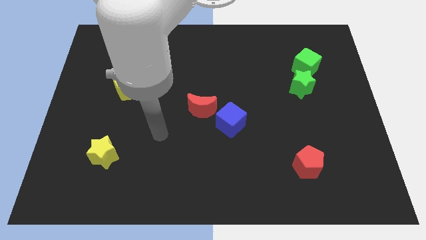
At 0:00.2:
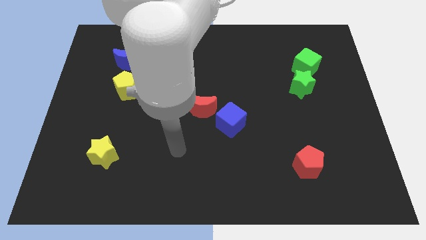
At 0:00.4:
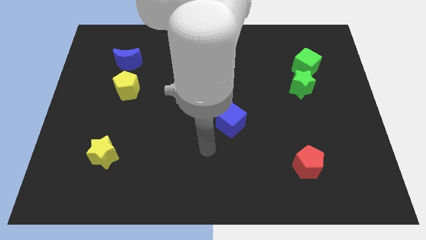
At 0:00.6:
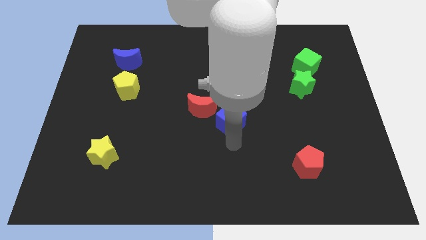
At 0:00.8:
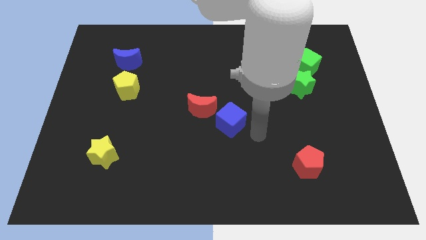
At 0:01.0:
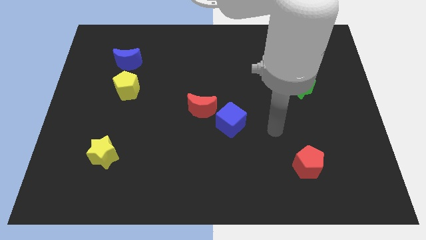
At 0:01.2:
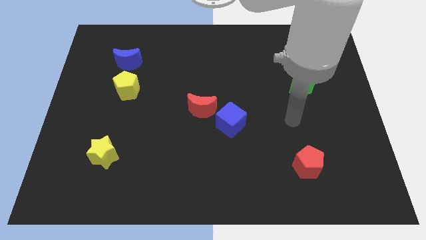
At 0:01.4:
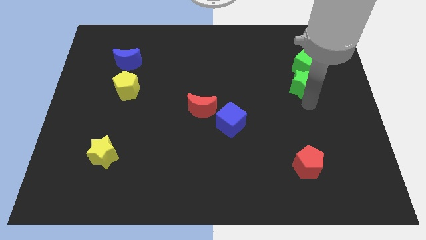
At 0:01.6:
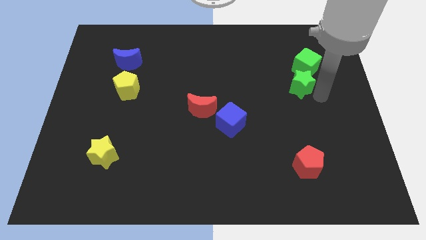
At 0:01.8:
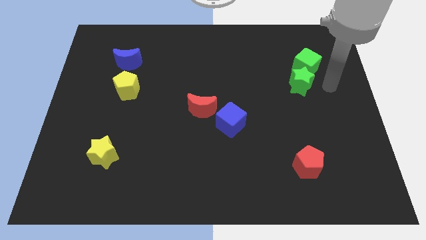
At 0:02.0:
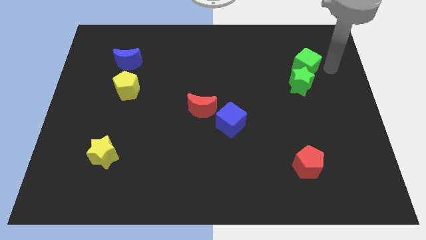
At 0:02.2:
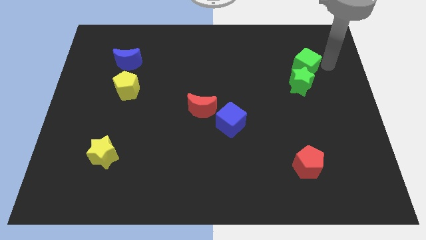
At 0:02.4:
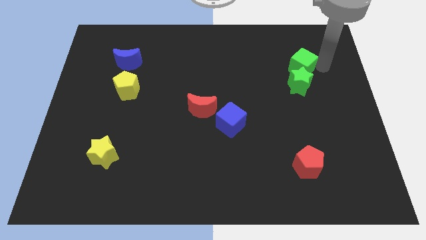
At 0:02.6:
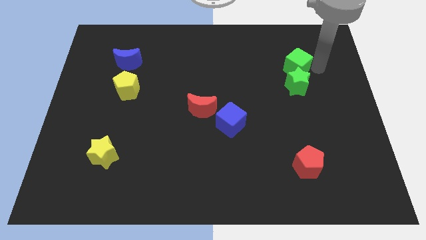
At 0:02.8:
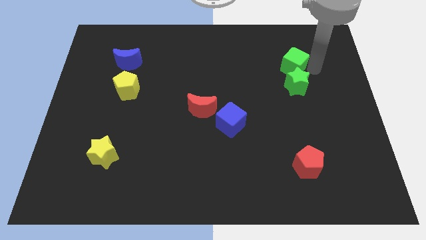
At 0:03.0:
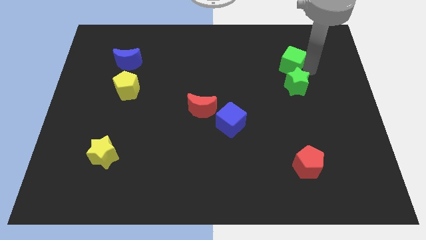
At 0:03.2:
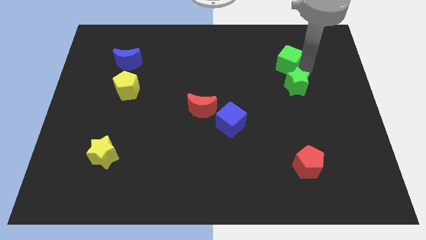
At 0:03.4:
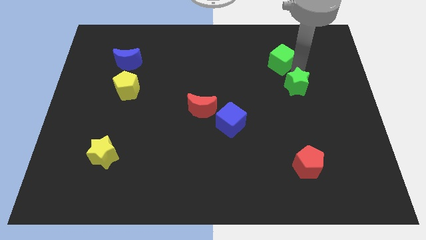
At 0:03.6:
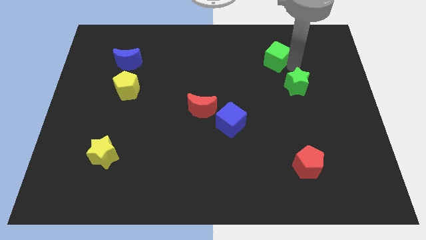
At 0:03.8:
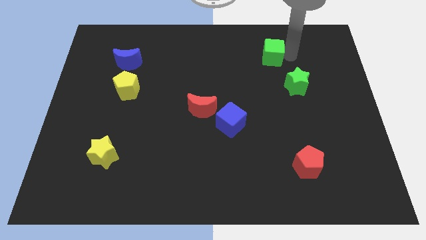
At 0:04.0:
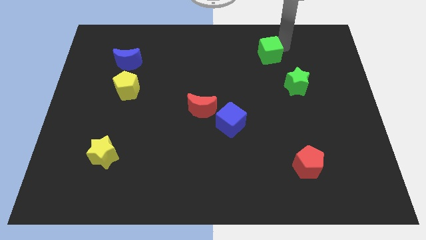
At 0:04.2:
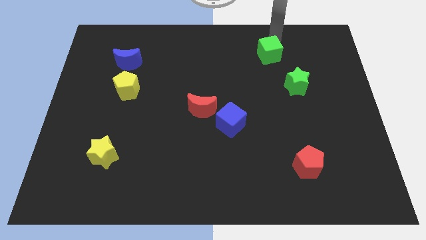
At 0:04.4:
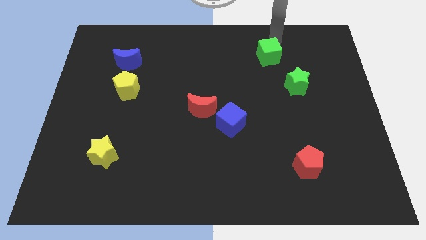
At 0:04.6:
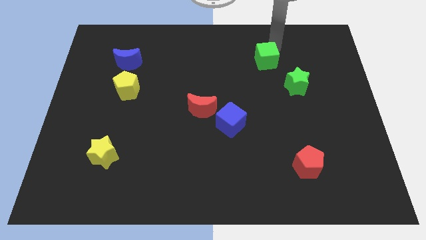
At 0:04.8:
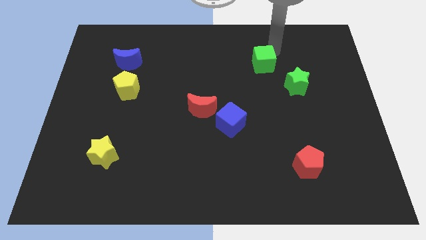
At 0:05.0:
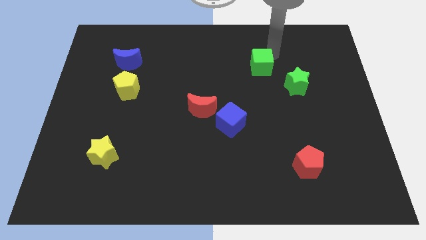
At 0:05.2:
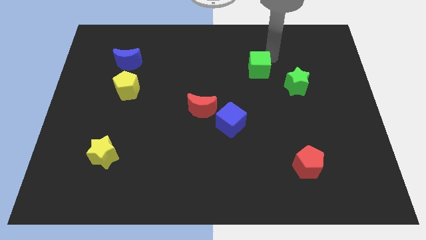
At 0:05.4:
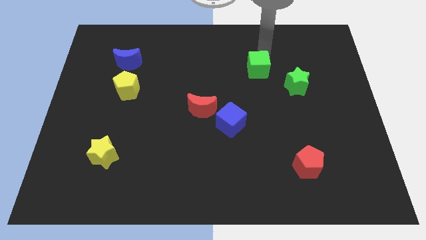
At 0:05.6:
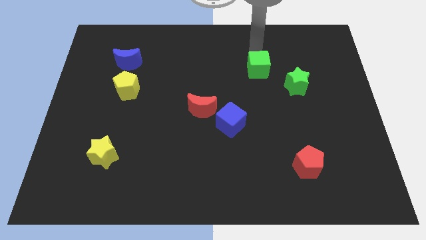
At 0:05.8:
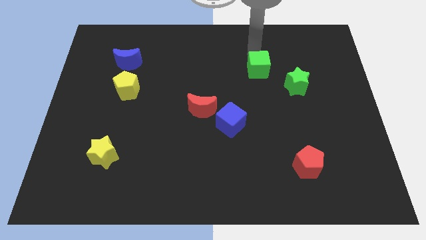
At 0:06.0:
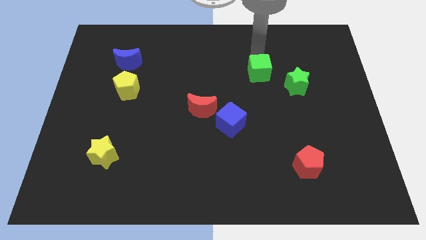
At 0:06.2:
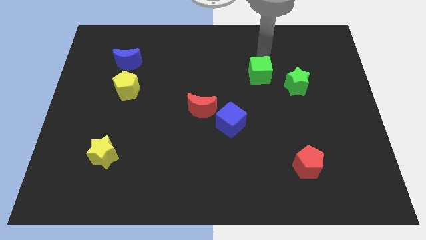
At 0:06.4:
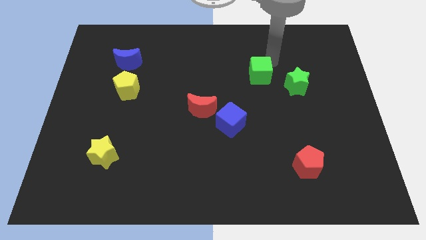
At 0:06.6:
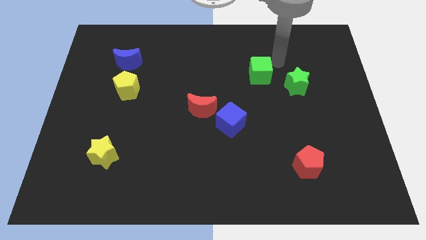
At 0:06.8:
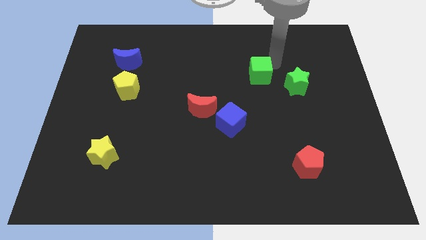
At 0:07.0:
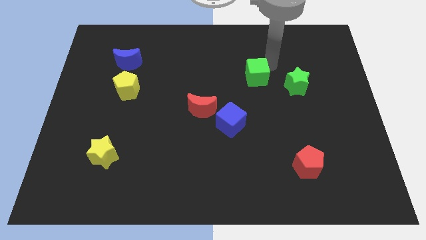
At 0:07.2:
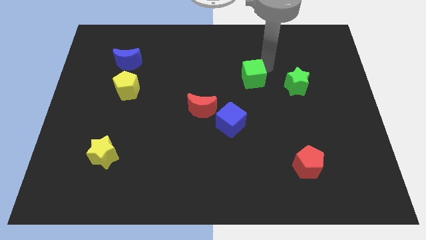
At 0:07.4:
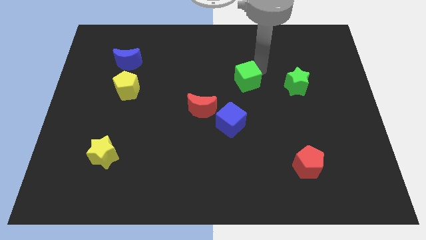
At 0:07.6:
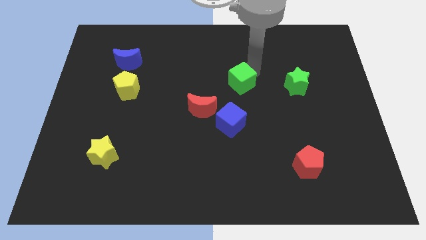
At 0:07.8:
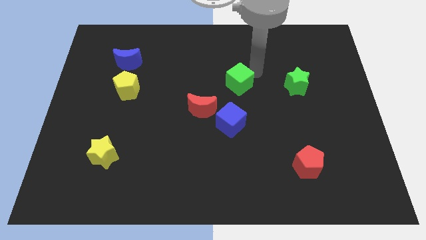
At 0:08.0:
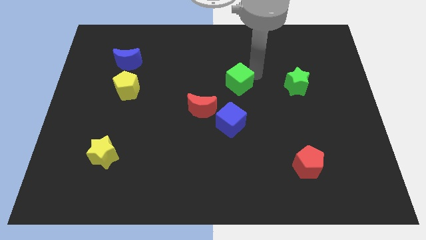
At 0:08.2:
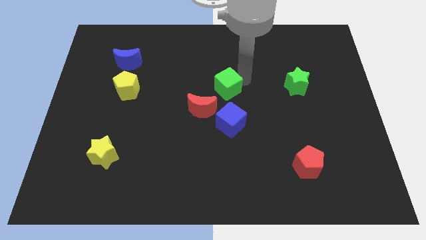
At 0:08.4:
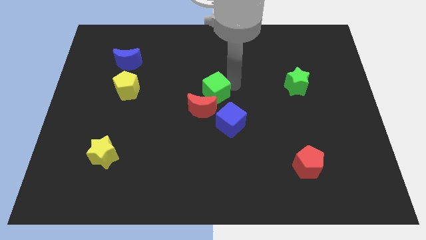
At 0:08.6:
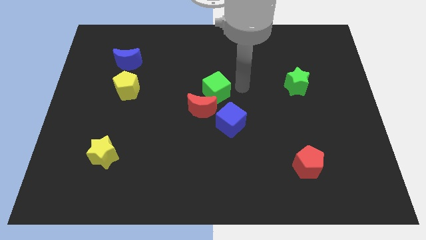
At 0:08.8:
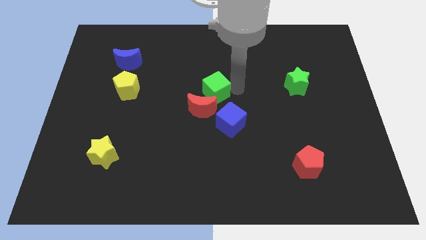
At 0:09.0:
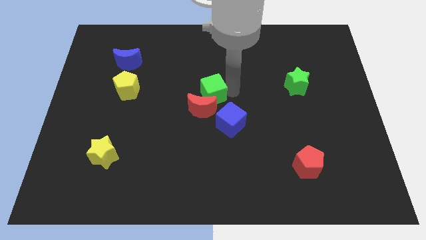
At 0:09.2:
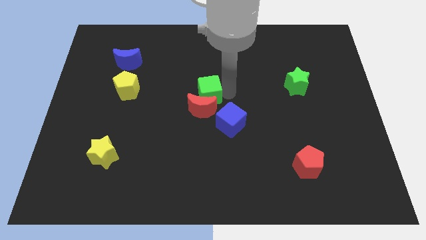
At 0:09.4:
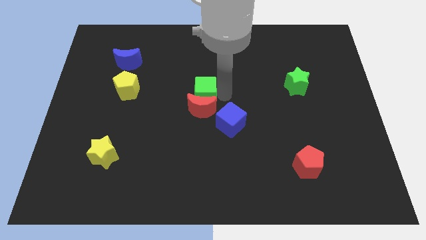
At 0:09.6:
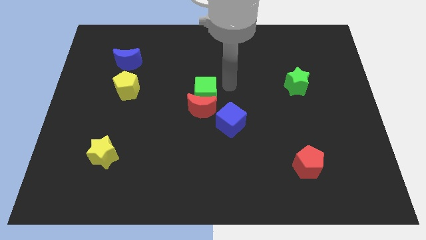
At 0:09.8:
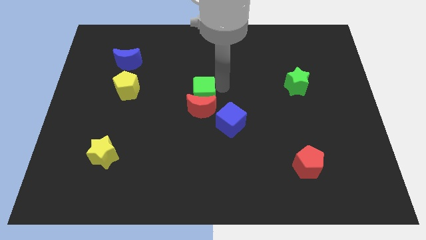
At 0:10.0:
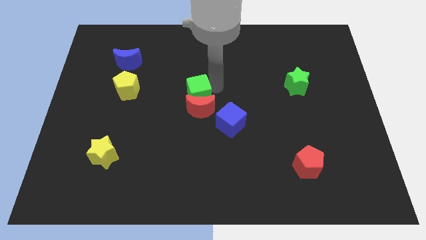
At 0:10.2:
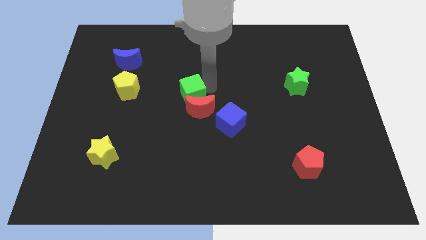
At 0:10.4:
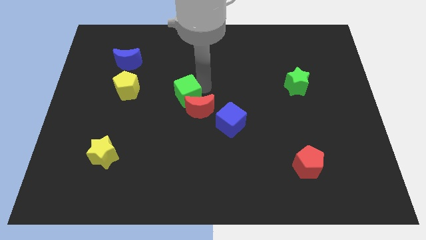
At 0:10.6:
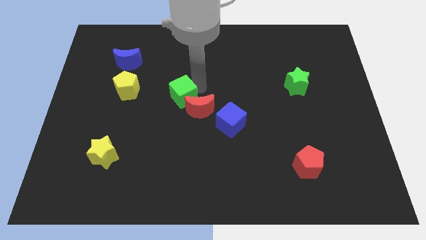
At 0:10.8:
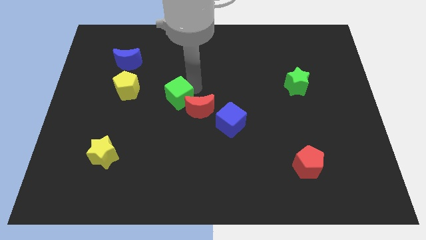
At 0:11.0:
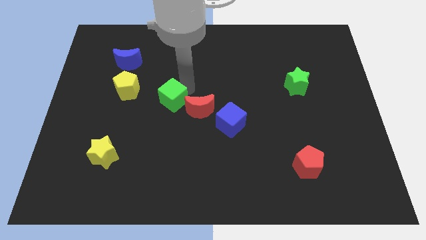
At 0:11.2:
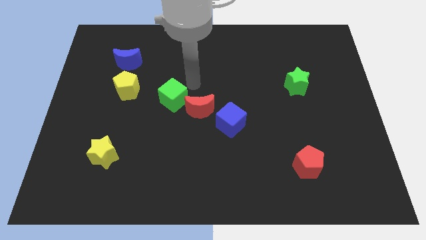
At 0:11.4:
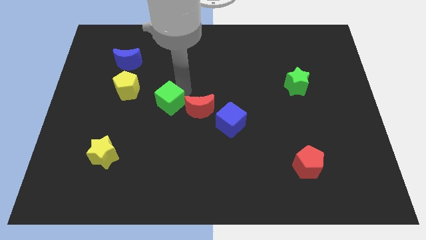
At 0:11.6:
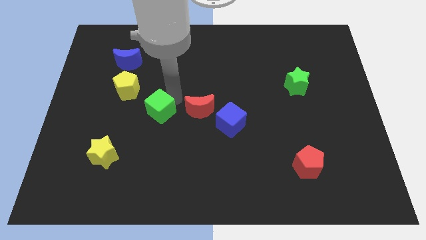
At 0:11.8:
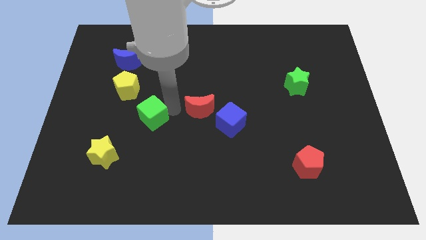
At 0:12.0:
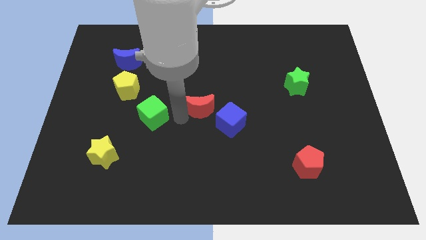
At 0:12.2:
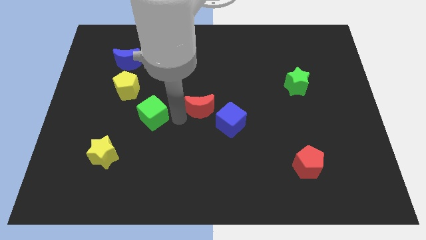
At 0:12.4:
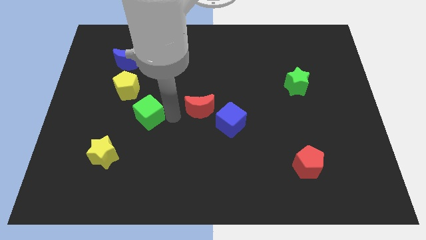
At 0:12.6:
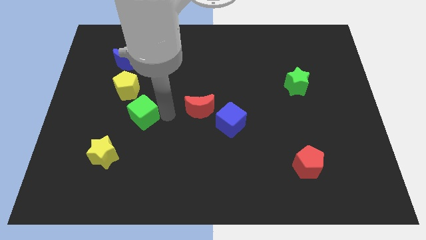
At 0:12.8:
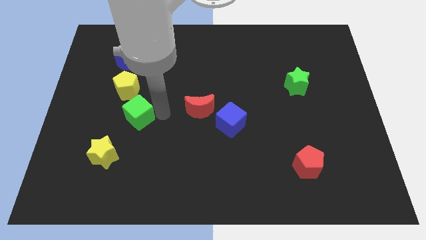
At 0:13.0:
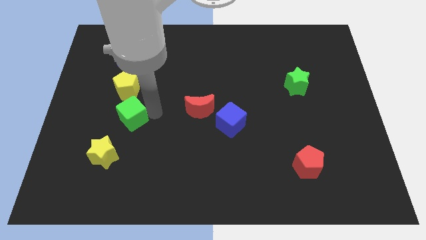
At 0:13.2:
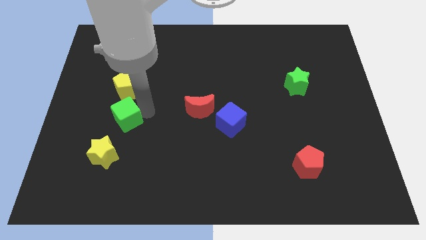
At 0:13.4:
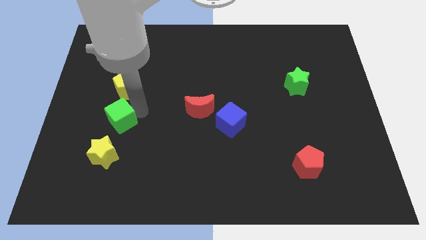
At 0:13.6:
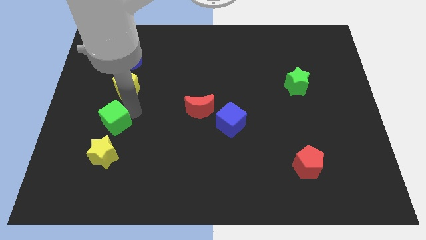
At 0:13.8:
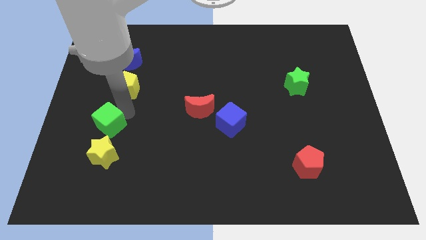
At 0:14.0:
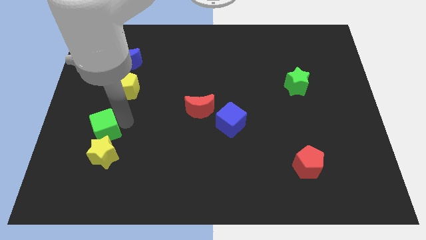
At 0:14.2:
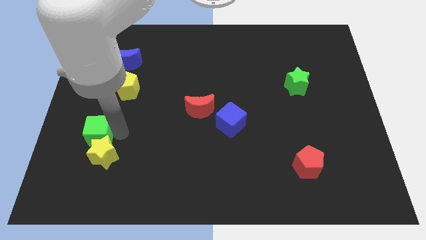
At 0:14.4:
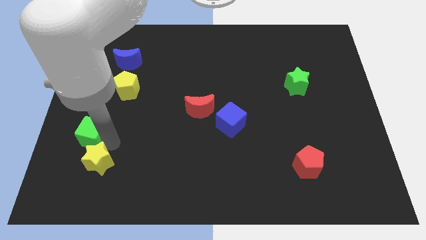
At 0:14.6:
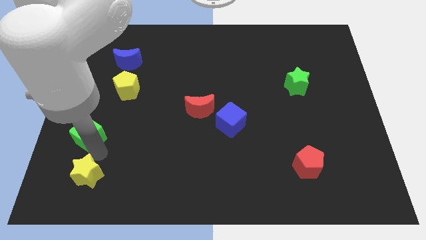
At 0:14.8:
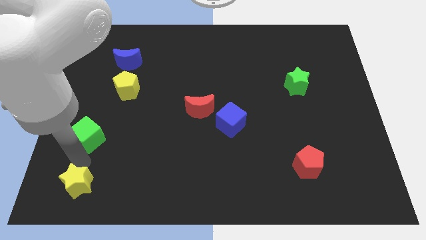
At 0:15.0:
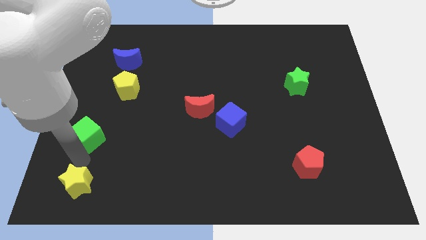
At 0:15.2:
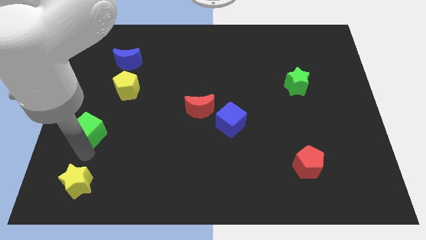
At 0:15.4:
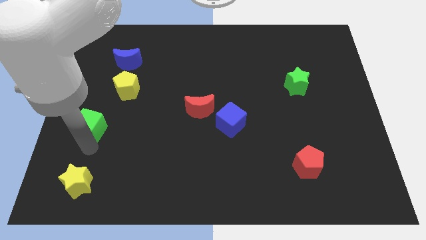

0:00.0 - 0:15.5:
put the green cube to the center left
